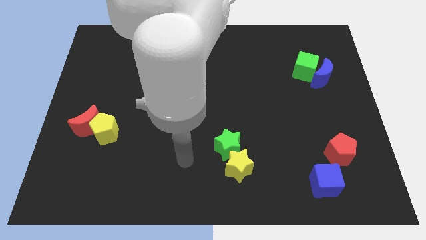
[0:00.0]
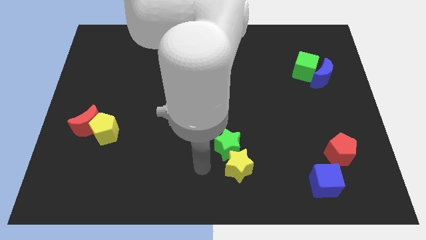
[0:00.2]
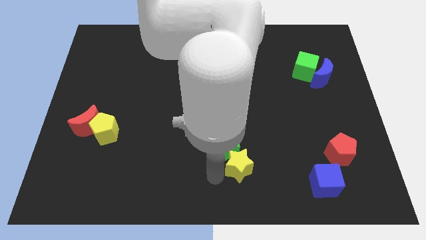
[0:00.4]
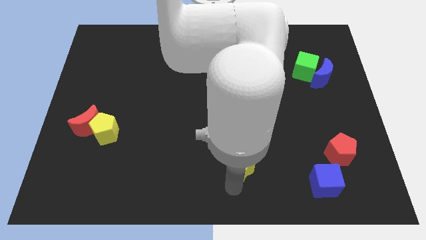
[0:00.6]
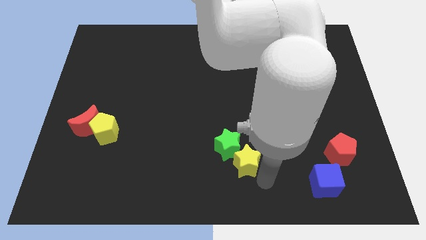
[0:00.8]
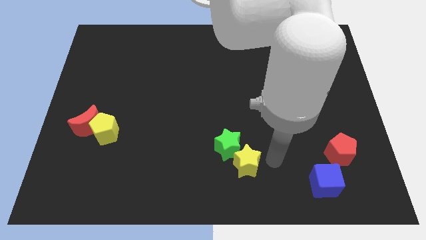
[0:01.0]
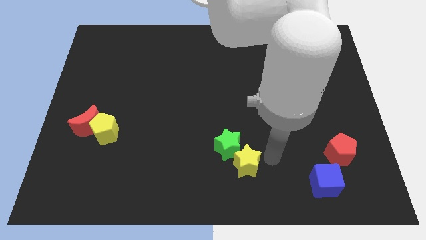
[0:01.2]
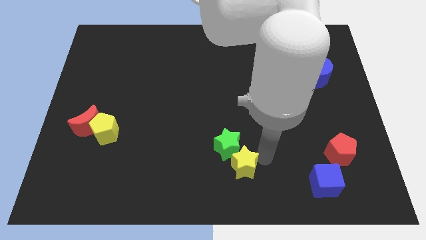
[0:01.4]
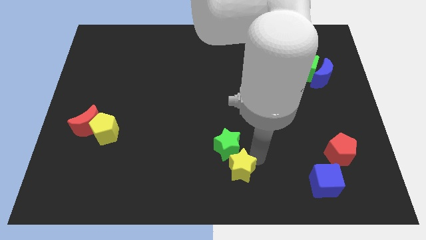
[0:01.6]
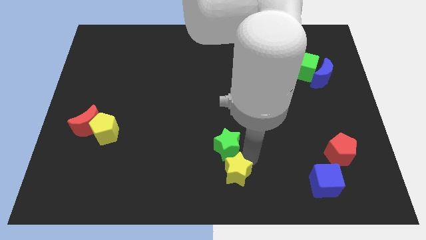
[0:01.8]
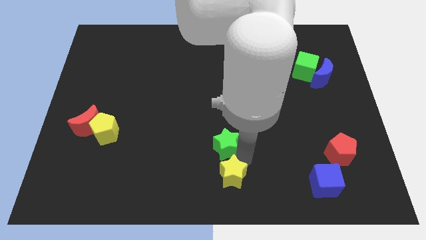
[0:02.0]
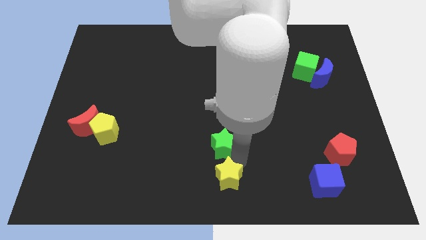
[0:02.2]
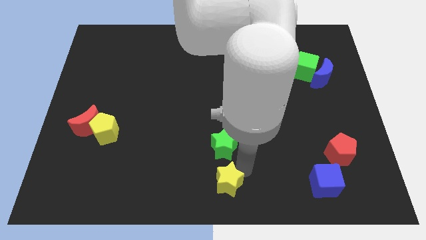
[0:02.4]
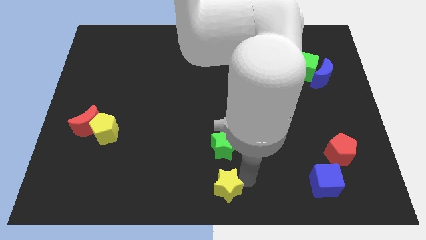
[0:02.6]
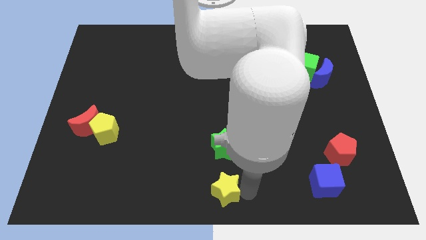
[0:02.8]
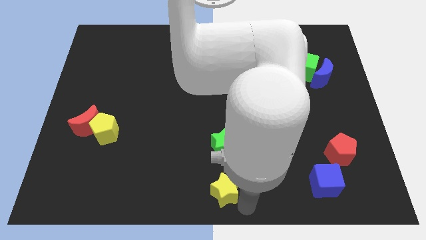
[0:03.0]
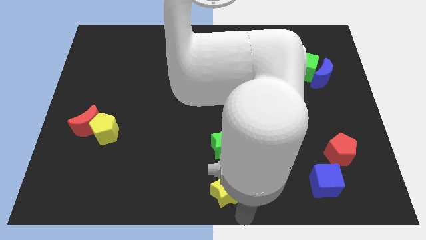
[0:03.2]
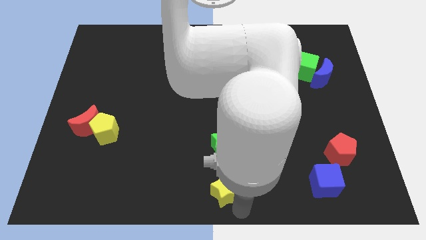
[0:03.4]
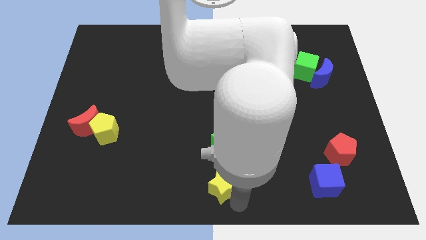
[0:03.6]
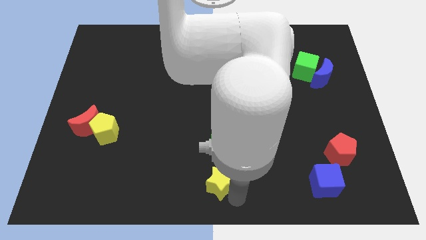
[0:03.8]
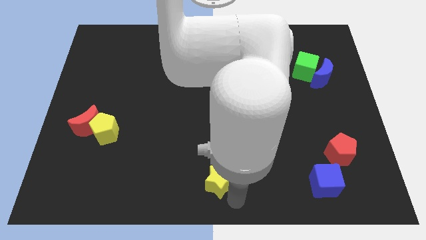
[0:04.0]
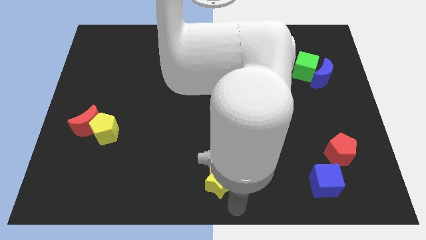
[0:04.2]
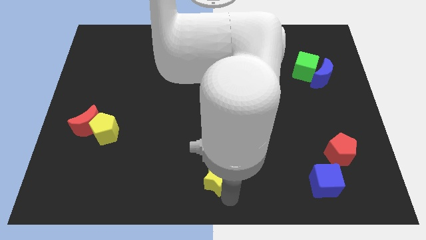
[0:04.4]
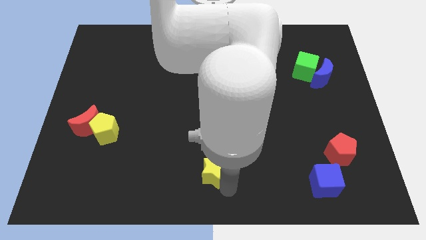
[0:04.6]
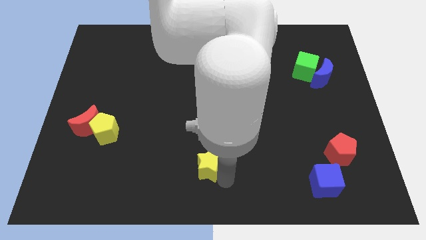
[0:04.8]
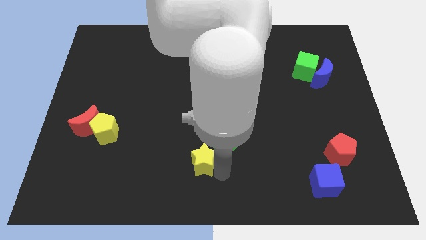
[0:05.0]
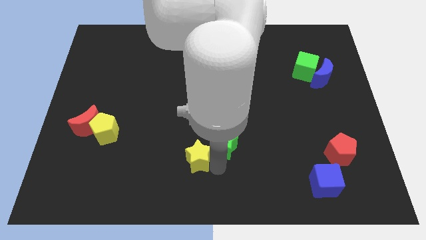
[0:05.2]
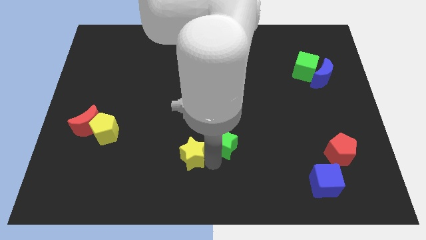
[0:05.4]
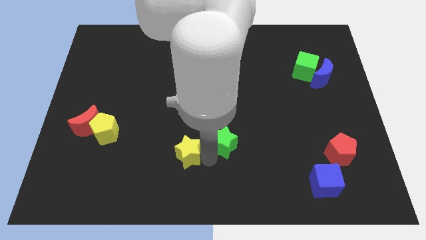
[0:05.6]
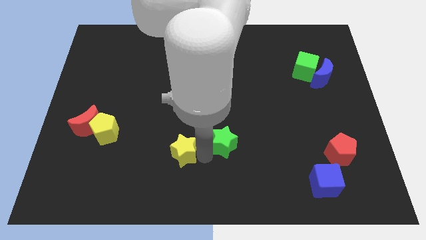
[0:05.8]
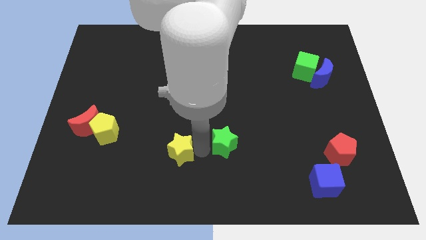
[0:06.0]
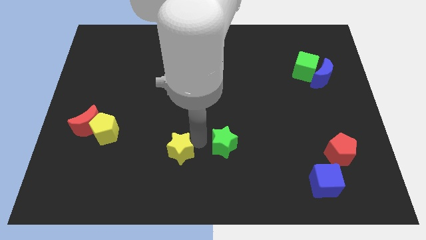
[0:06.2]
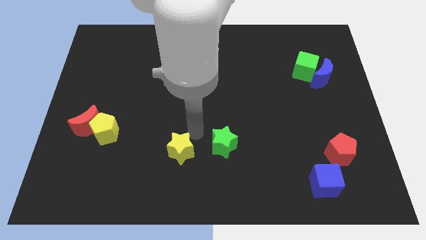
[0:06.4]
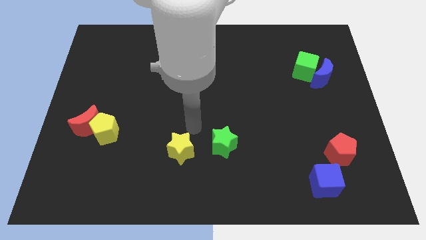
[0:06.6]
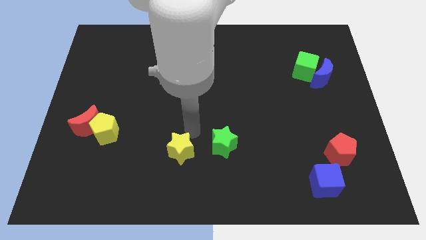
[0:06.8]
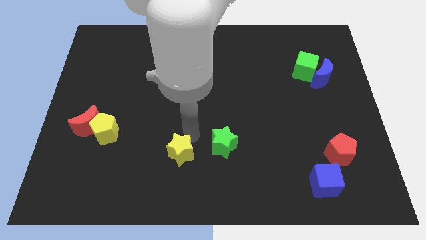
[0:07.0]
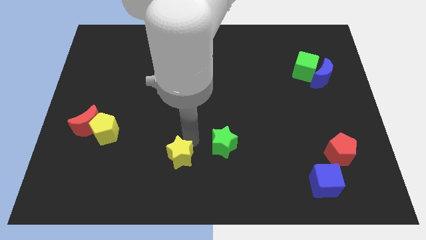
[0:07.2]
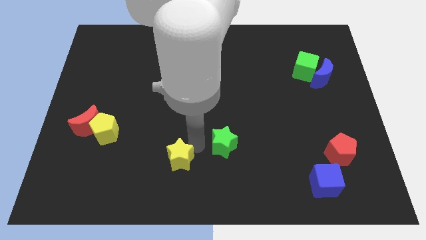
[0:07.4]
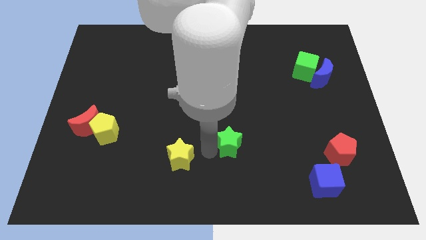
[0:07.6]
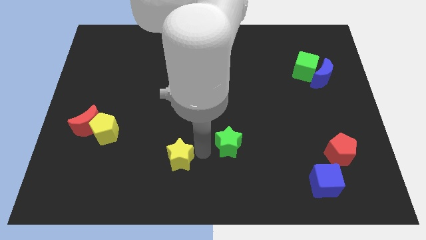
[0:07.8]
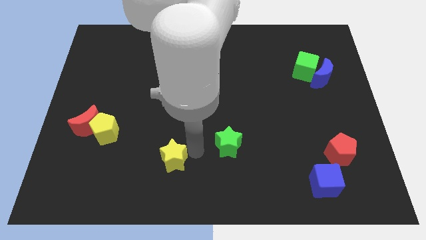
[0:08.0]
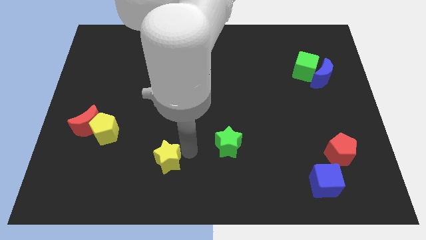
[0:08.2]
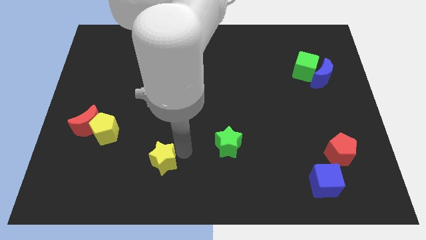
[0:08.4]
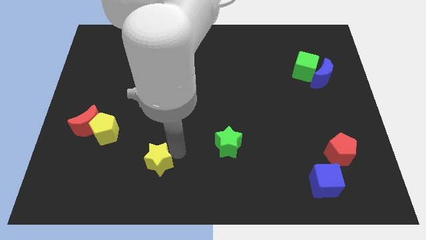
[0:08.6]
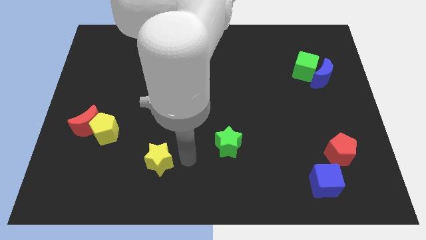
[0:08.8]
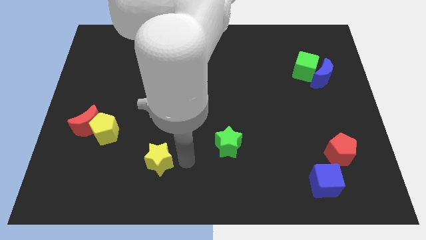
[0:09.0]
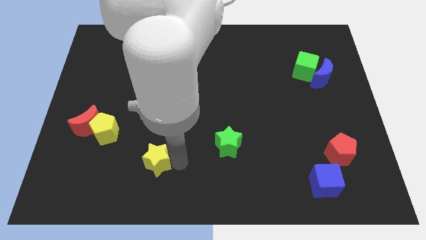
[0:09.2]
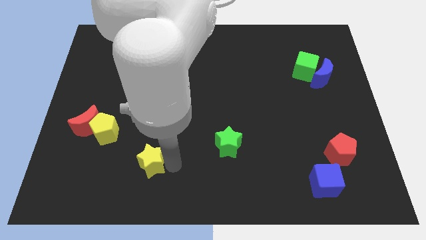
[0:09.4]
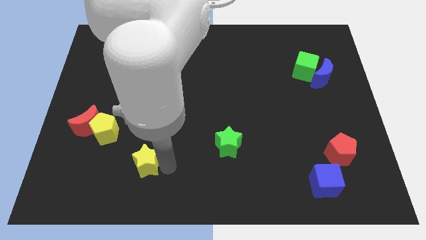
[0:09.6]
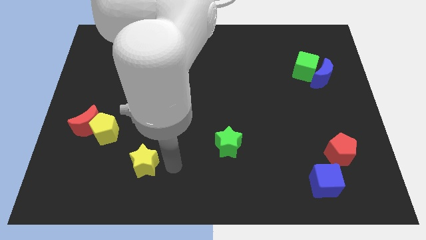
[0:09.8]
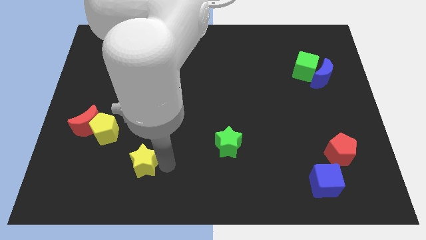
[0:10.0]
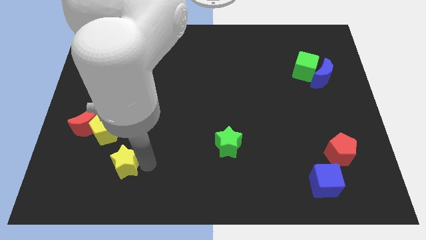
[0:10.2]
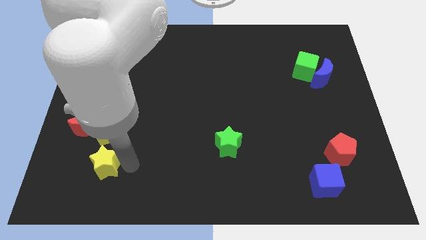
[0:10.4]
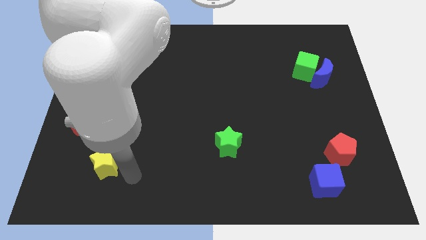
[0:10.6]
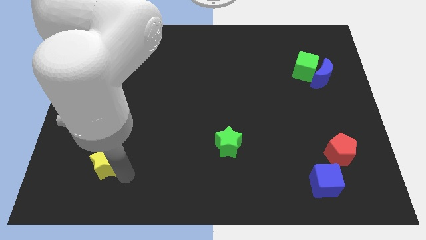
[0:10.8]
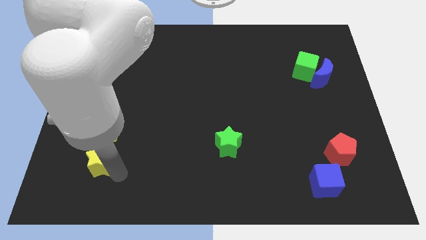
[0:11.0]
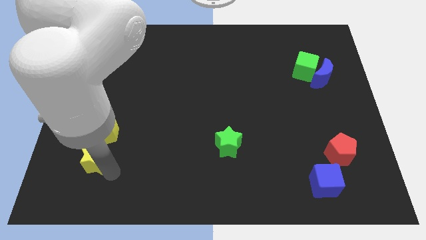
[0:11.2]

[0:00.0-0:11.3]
move the yellow star to the bottom left side of the yellow pentagon

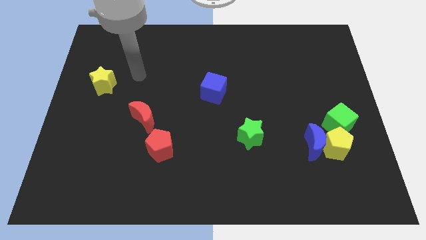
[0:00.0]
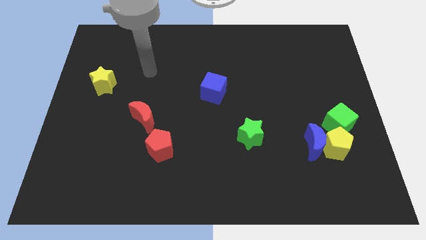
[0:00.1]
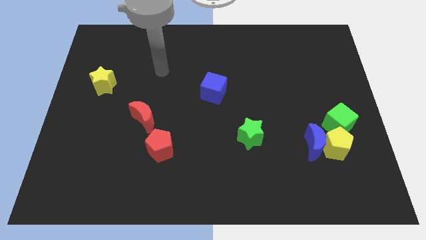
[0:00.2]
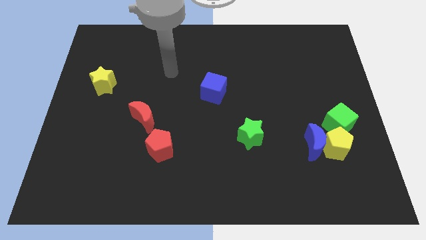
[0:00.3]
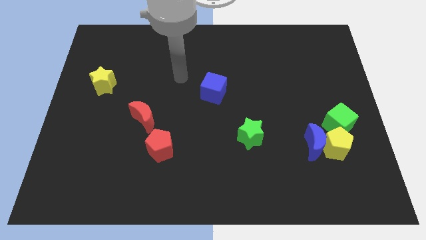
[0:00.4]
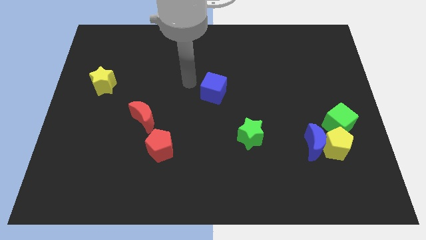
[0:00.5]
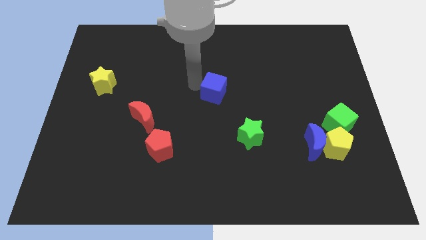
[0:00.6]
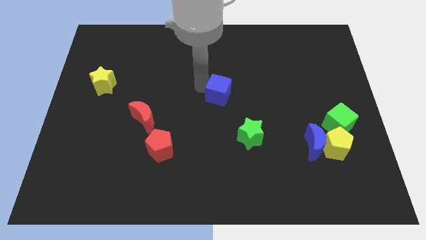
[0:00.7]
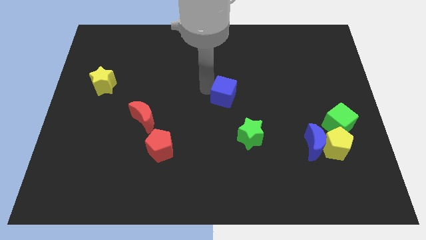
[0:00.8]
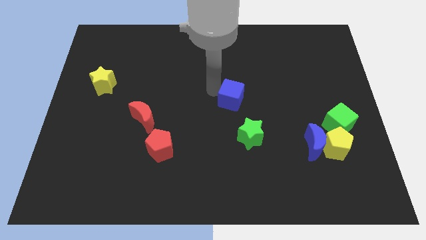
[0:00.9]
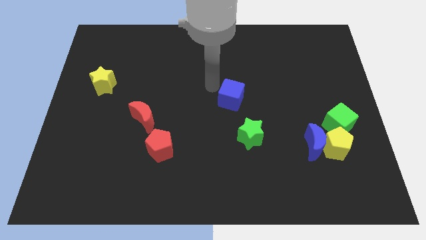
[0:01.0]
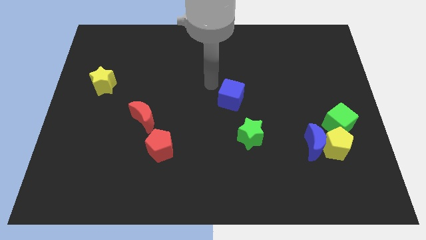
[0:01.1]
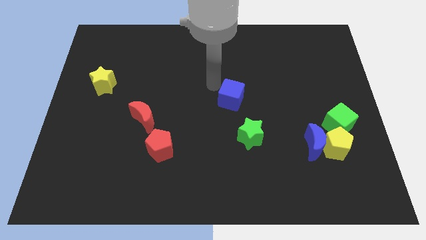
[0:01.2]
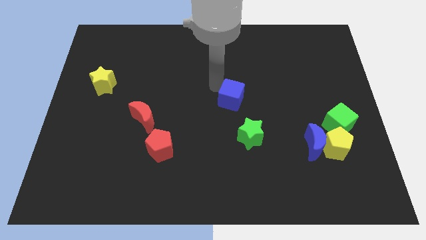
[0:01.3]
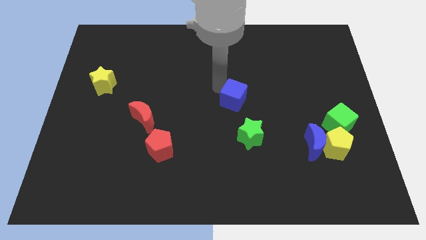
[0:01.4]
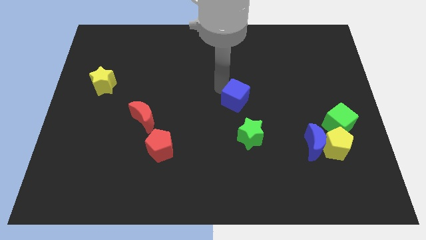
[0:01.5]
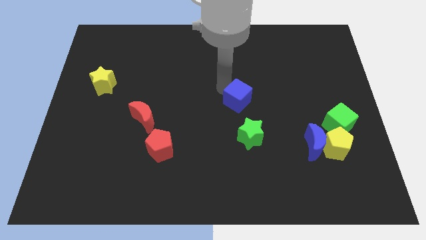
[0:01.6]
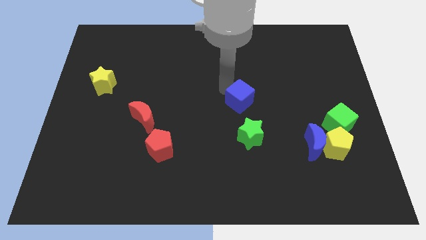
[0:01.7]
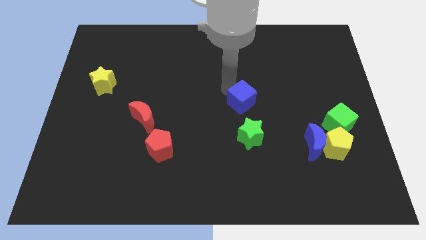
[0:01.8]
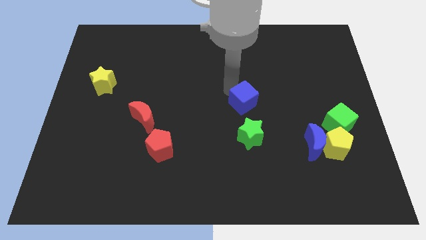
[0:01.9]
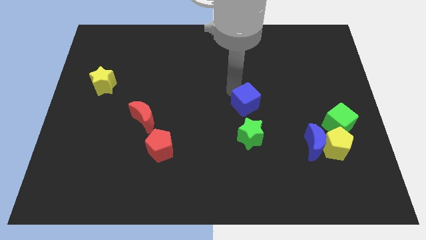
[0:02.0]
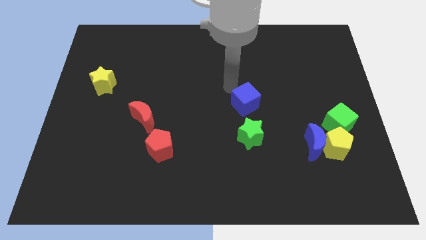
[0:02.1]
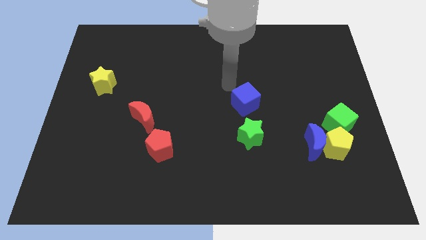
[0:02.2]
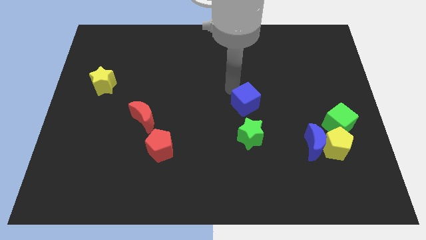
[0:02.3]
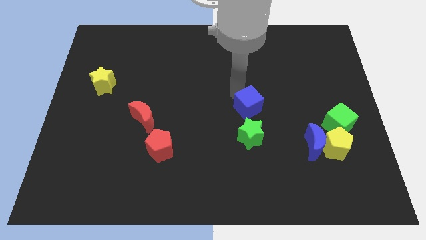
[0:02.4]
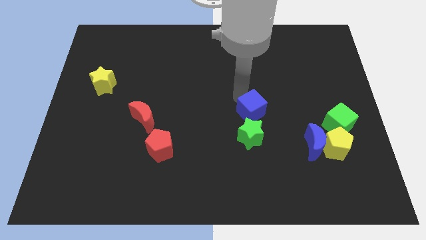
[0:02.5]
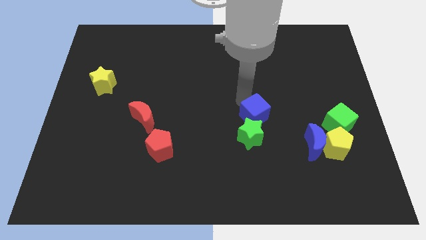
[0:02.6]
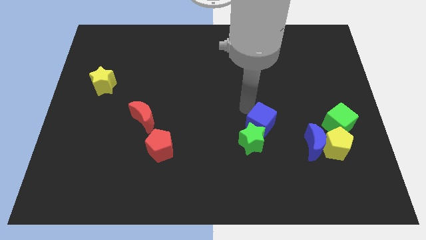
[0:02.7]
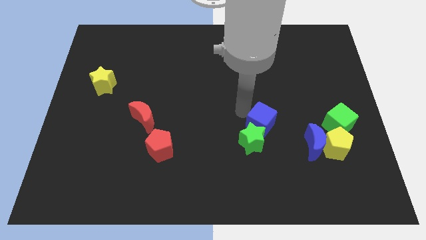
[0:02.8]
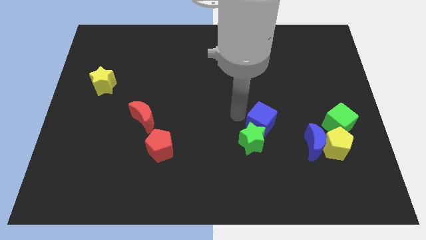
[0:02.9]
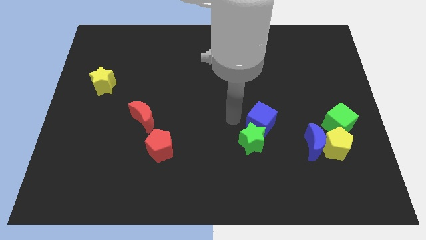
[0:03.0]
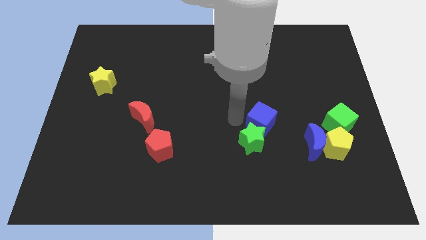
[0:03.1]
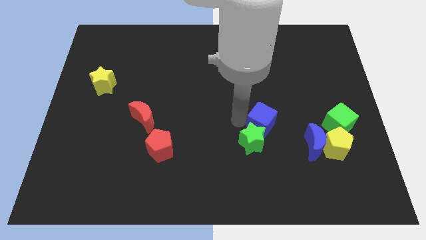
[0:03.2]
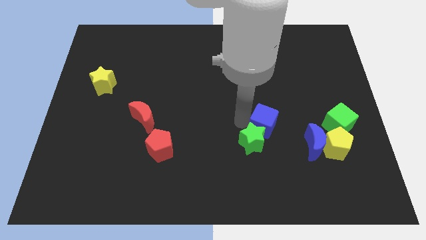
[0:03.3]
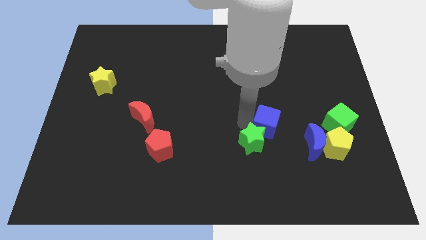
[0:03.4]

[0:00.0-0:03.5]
move the blue cube to the top left side of the blue moon
